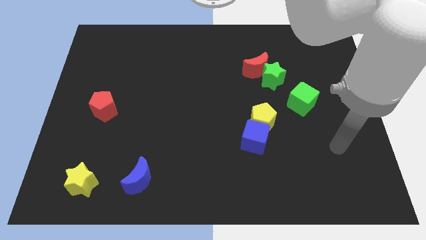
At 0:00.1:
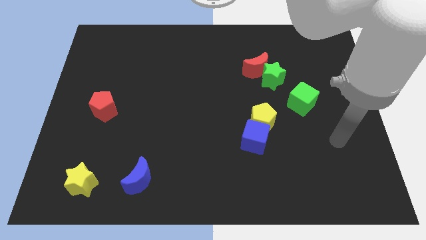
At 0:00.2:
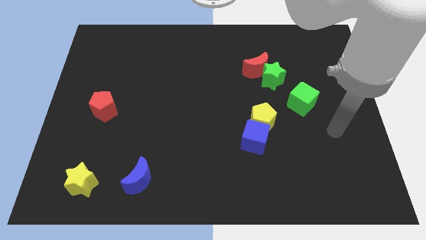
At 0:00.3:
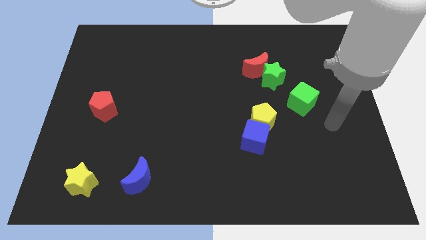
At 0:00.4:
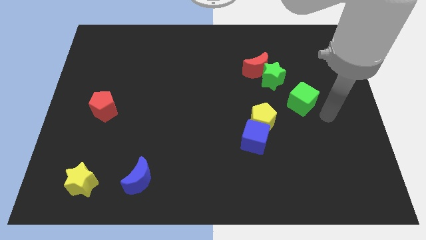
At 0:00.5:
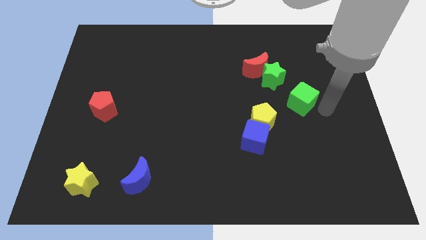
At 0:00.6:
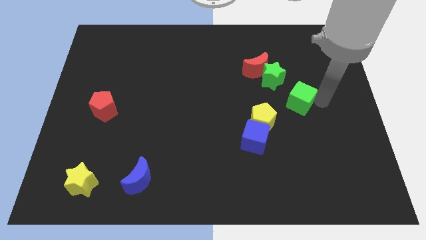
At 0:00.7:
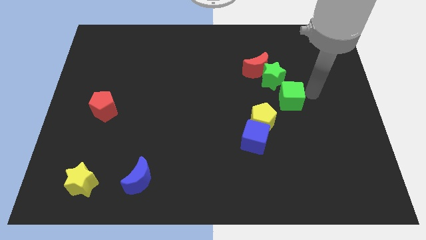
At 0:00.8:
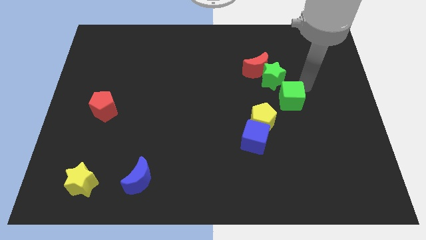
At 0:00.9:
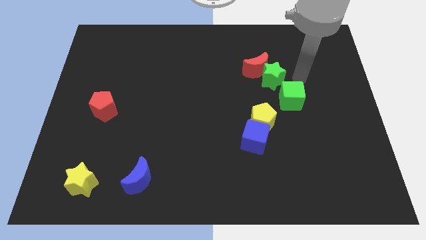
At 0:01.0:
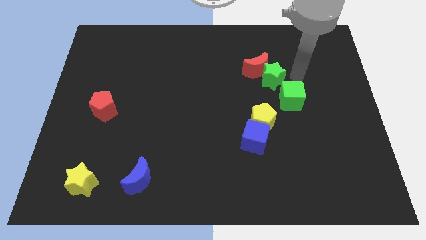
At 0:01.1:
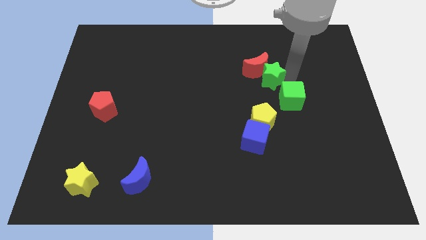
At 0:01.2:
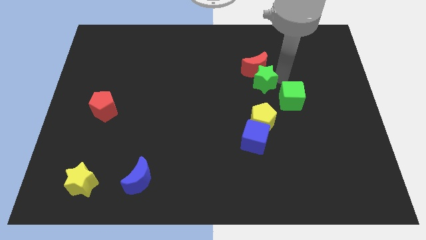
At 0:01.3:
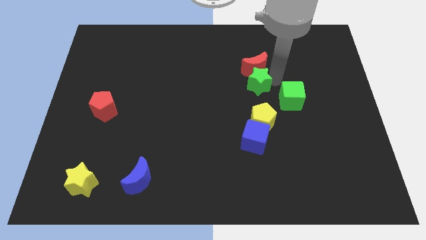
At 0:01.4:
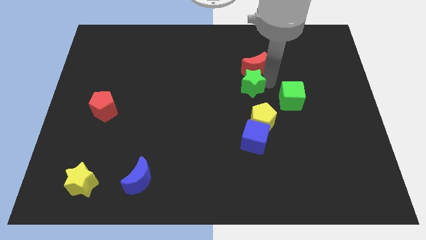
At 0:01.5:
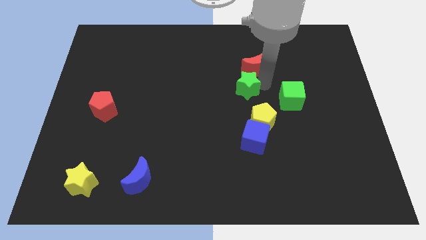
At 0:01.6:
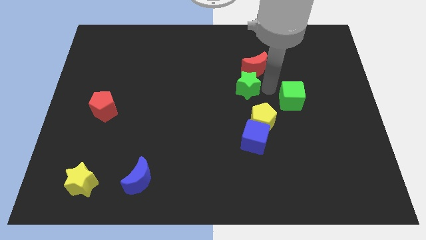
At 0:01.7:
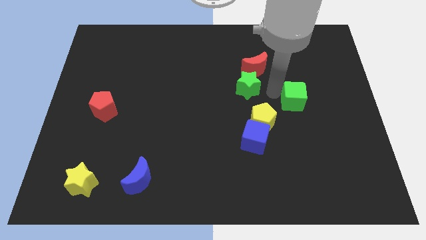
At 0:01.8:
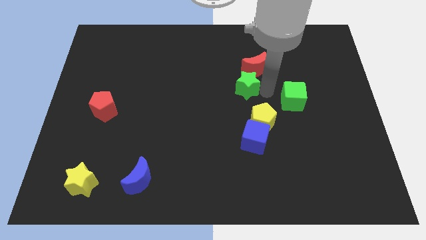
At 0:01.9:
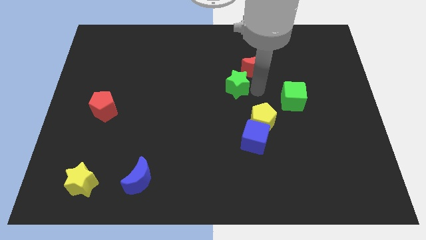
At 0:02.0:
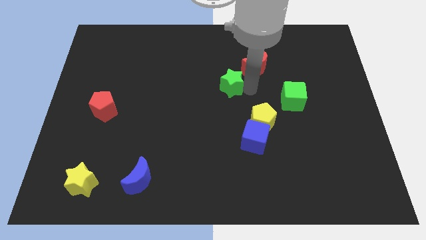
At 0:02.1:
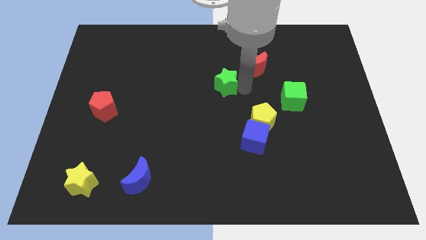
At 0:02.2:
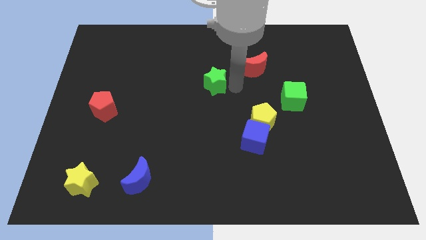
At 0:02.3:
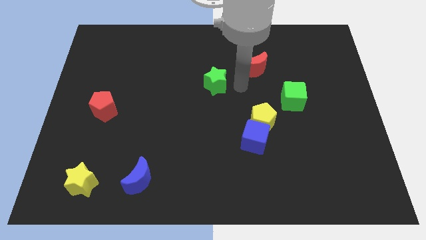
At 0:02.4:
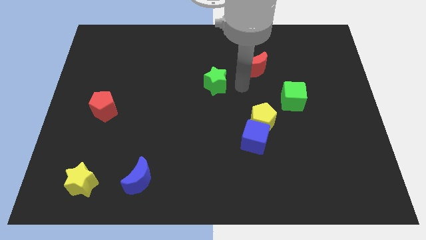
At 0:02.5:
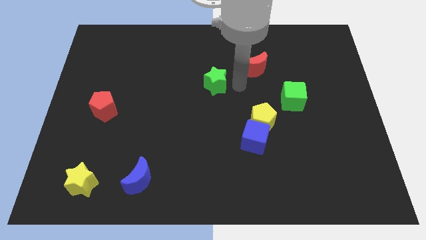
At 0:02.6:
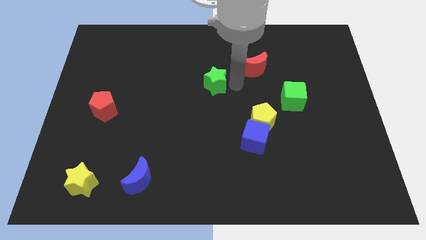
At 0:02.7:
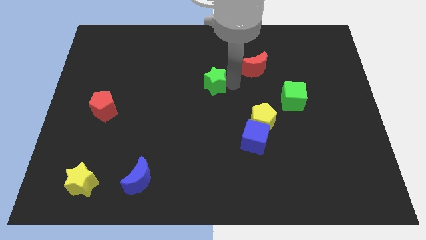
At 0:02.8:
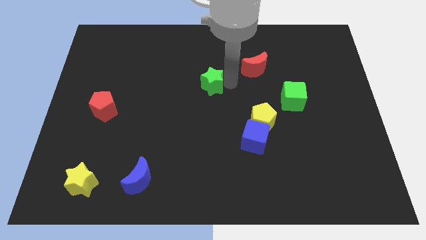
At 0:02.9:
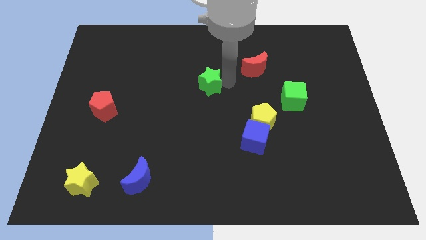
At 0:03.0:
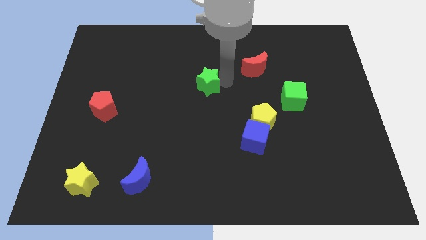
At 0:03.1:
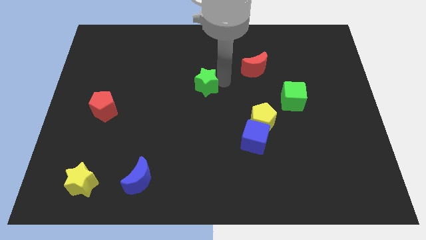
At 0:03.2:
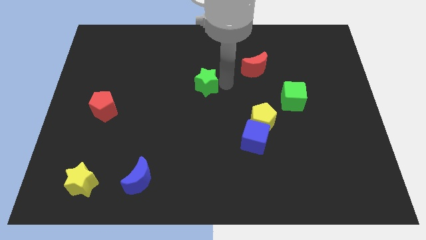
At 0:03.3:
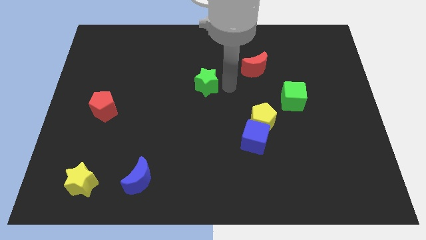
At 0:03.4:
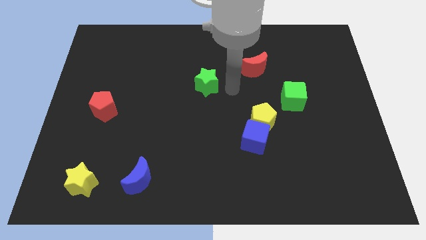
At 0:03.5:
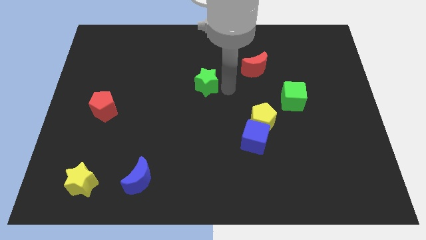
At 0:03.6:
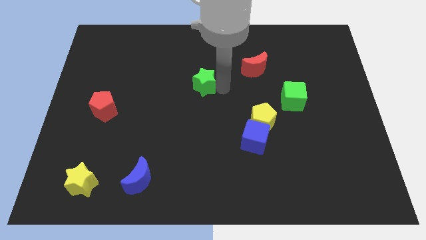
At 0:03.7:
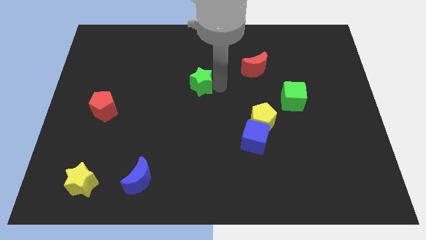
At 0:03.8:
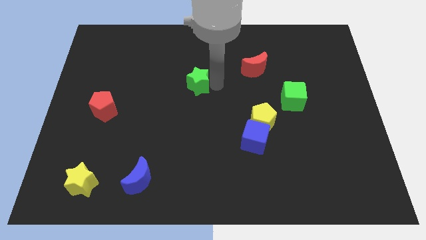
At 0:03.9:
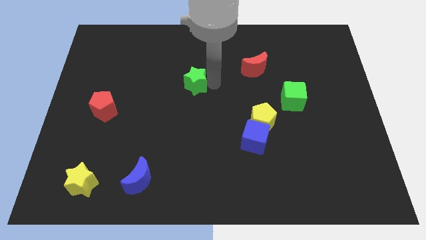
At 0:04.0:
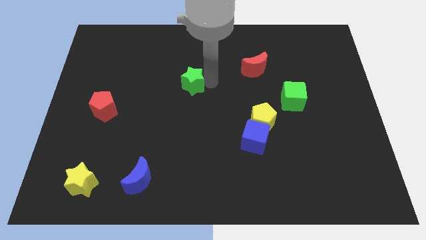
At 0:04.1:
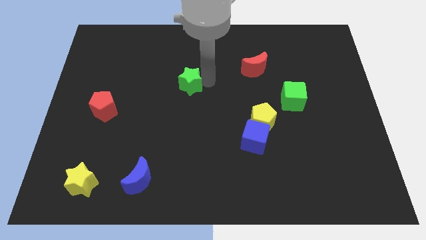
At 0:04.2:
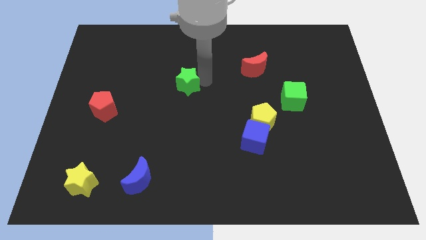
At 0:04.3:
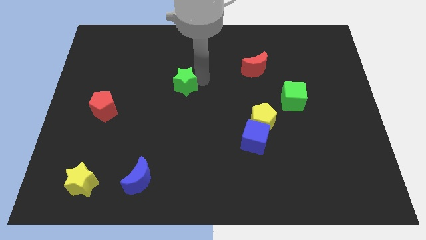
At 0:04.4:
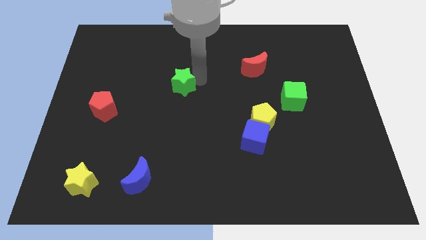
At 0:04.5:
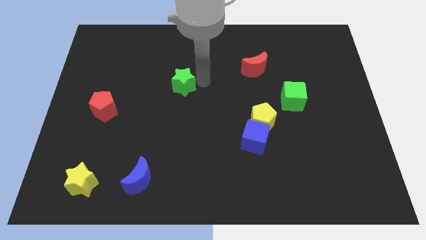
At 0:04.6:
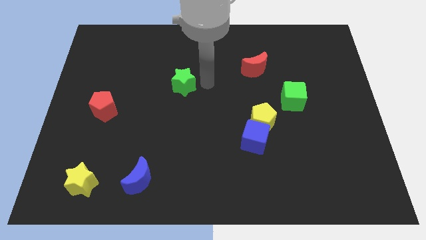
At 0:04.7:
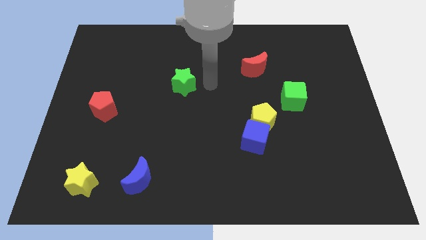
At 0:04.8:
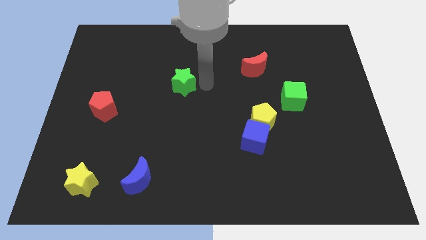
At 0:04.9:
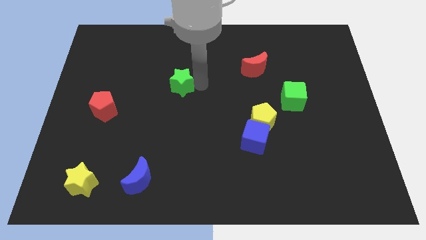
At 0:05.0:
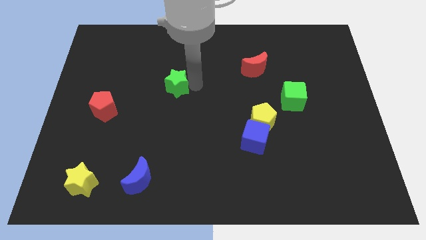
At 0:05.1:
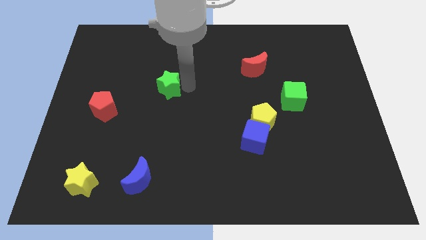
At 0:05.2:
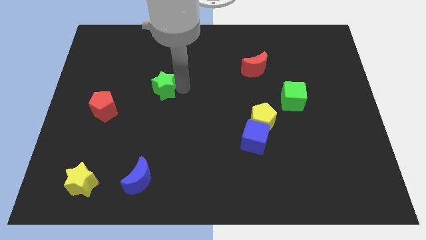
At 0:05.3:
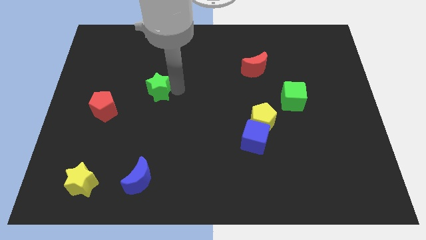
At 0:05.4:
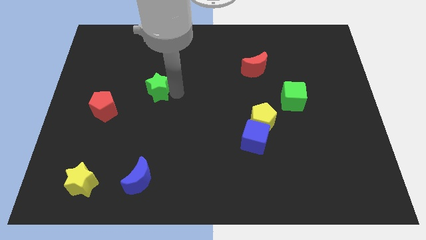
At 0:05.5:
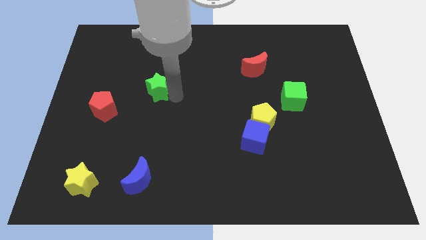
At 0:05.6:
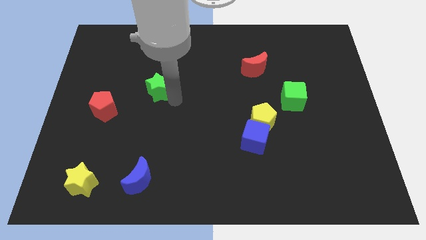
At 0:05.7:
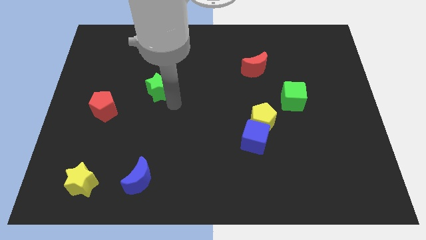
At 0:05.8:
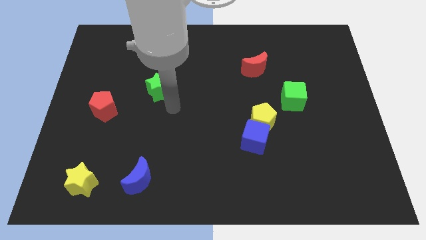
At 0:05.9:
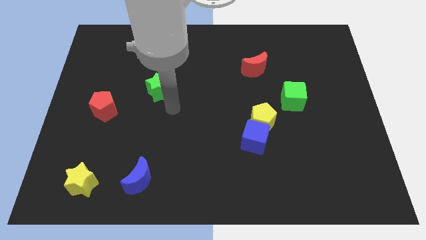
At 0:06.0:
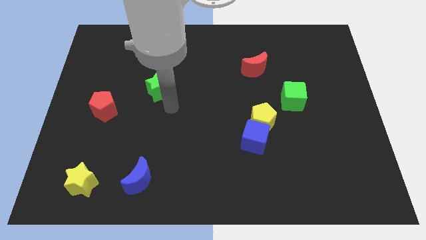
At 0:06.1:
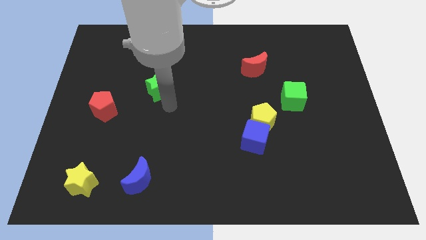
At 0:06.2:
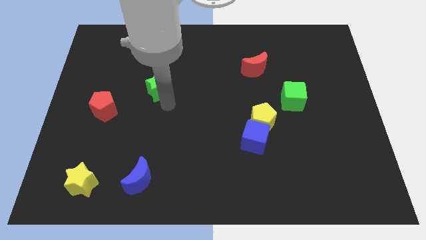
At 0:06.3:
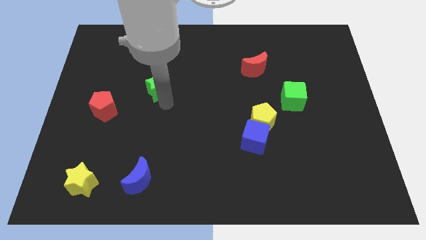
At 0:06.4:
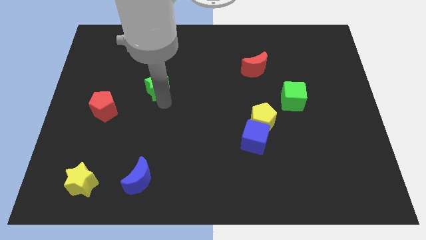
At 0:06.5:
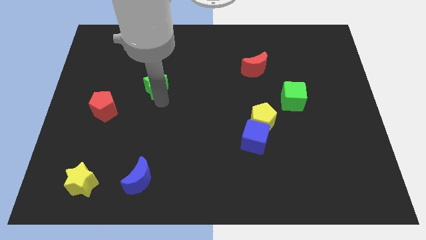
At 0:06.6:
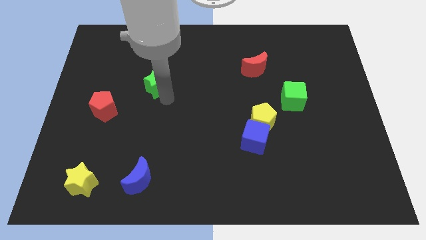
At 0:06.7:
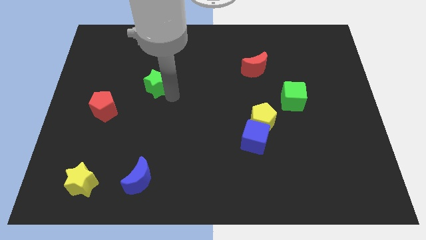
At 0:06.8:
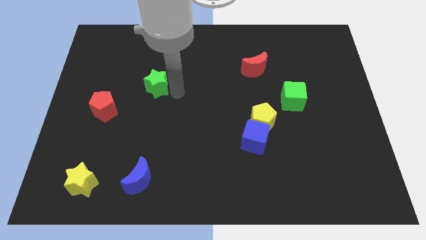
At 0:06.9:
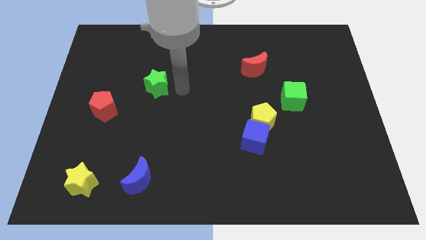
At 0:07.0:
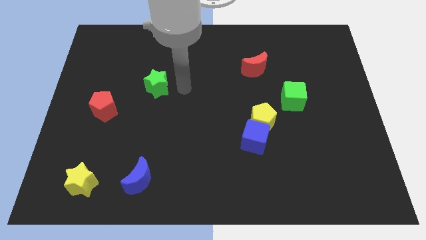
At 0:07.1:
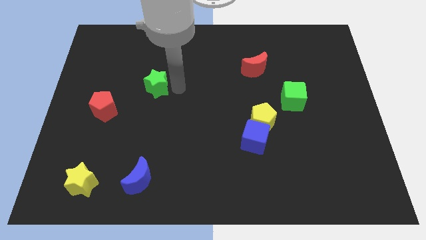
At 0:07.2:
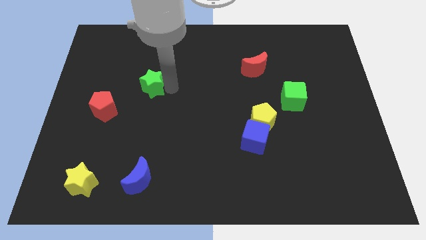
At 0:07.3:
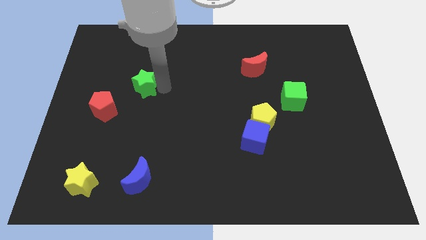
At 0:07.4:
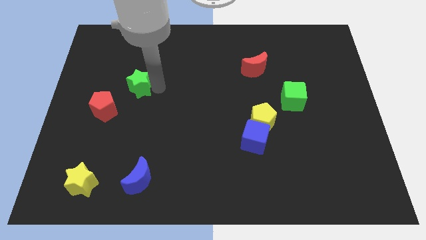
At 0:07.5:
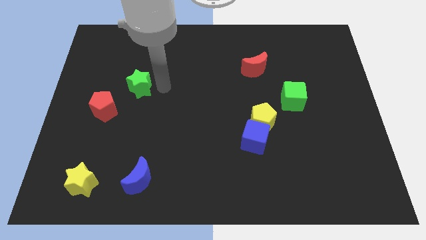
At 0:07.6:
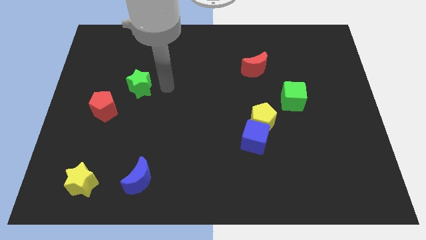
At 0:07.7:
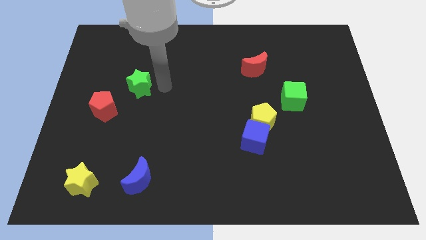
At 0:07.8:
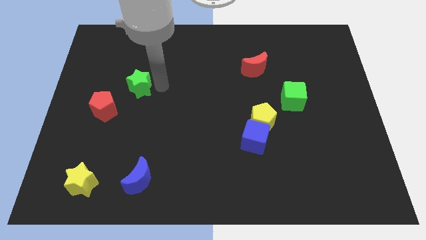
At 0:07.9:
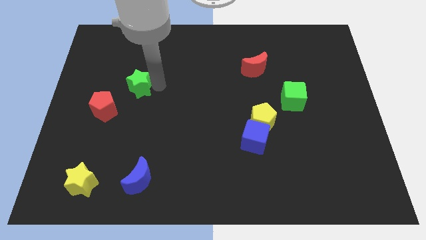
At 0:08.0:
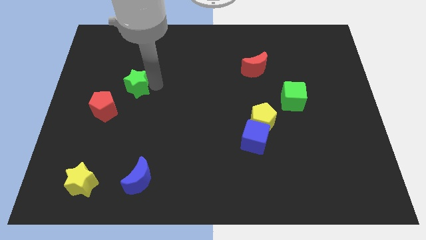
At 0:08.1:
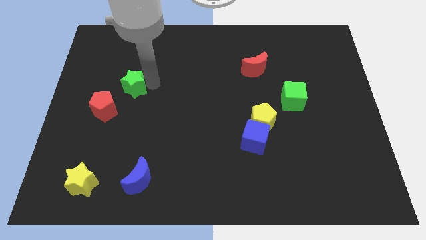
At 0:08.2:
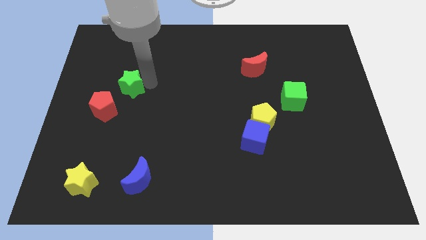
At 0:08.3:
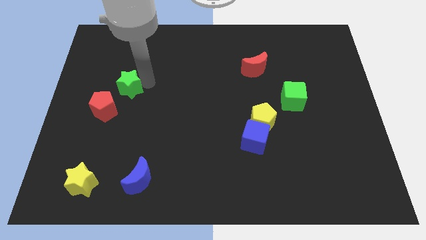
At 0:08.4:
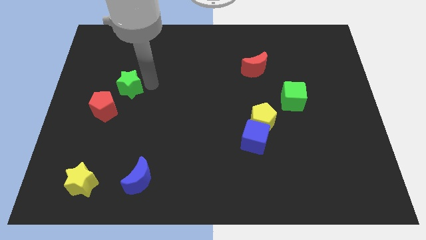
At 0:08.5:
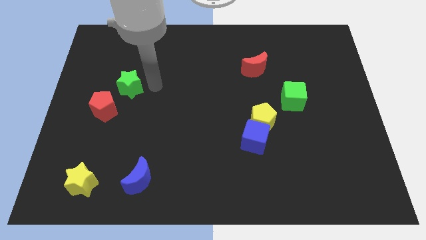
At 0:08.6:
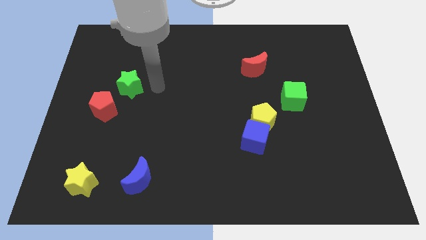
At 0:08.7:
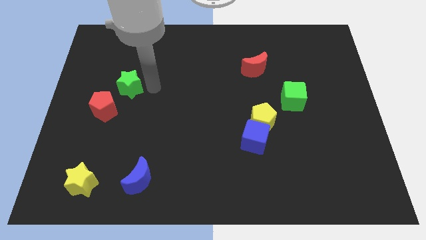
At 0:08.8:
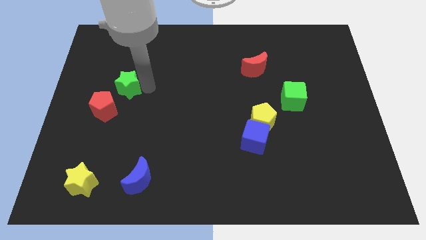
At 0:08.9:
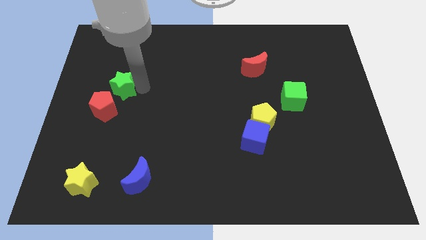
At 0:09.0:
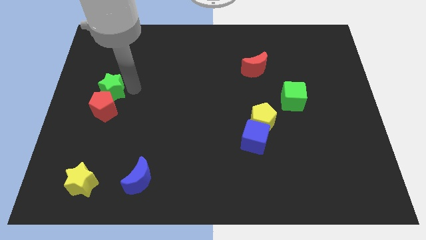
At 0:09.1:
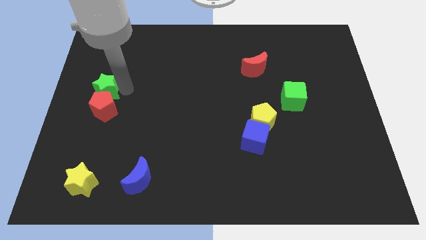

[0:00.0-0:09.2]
move the green star to the center left
